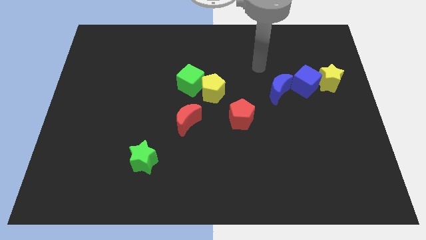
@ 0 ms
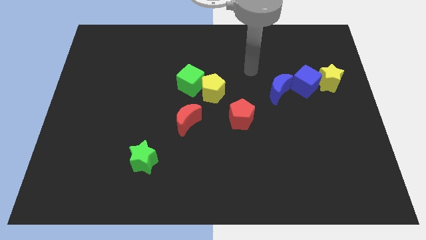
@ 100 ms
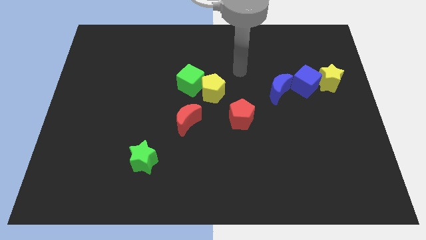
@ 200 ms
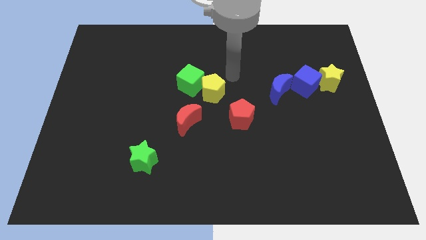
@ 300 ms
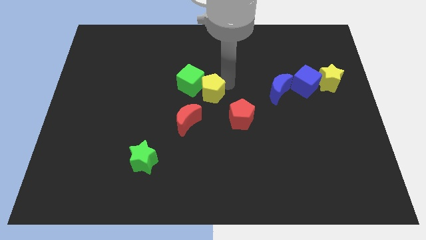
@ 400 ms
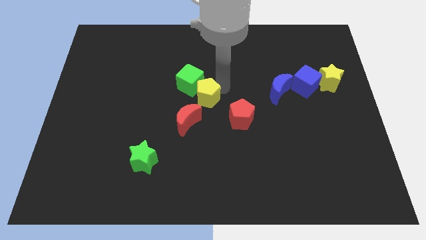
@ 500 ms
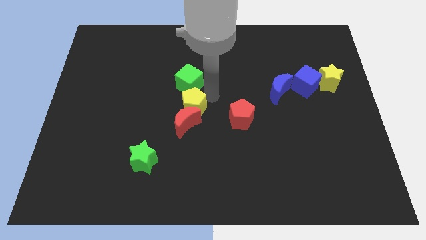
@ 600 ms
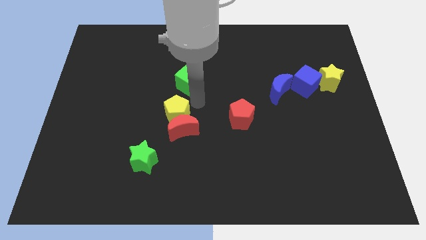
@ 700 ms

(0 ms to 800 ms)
move the green cube away from the yellow pentagon

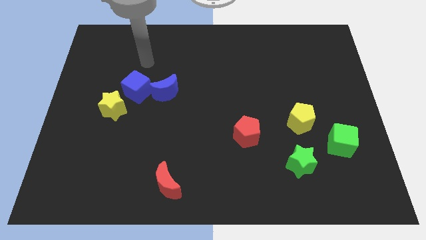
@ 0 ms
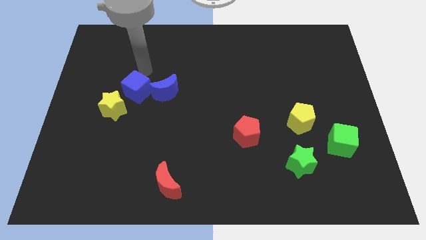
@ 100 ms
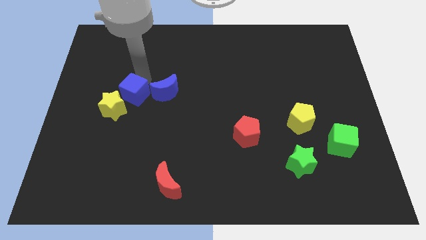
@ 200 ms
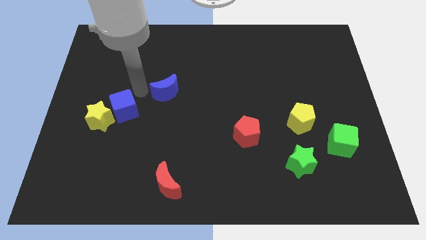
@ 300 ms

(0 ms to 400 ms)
pull the blue moon apart from the blue cube

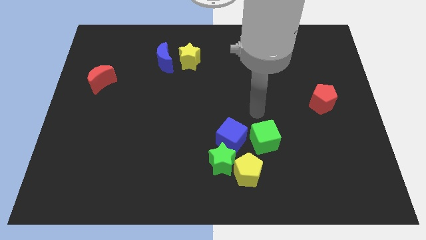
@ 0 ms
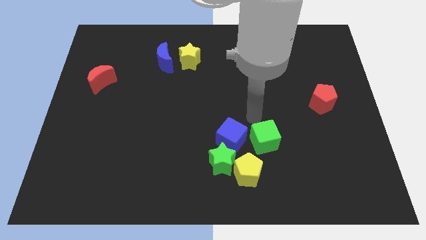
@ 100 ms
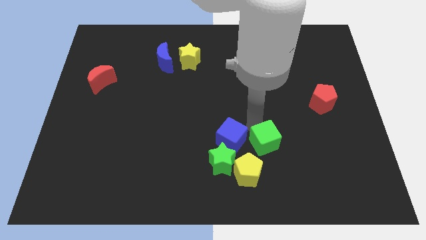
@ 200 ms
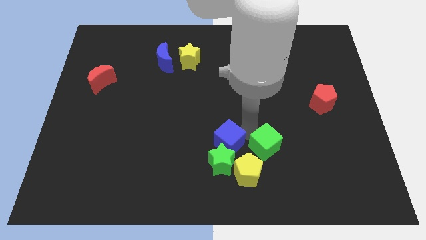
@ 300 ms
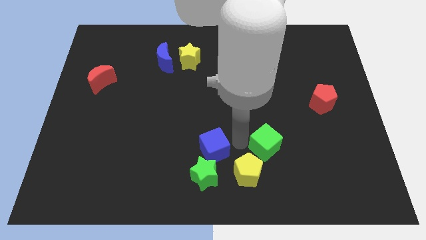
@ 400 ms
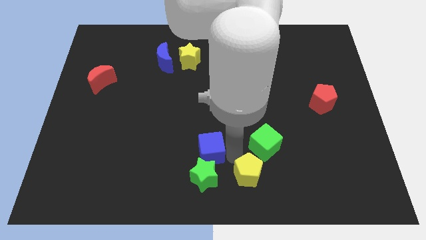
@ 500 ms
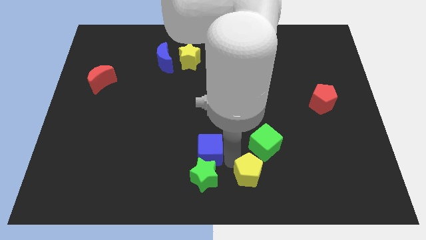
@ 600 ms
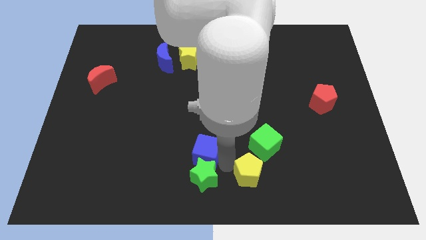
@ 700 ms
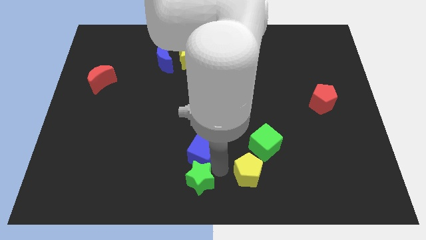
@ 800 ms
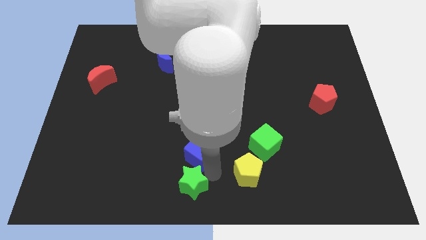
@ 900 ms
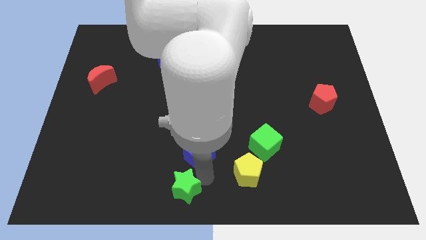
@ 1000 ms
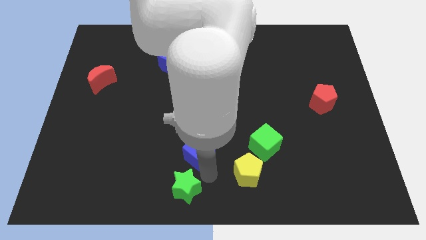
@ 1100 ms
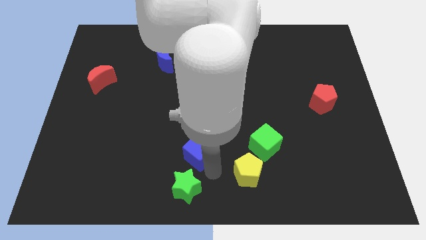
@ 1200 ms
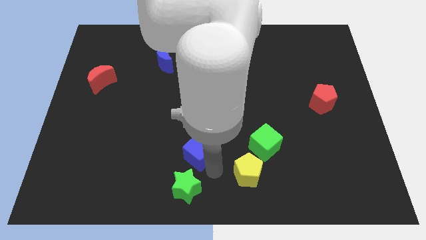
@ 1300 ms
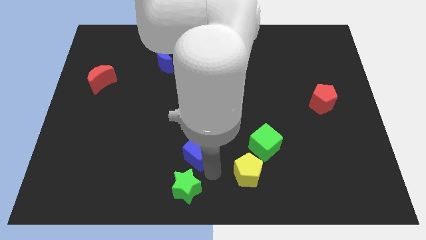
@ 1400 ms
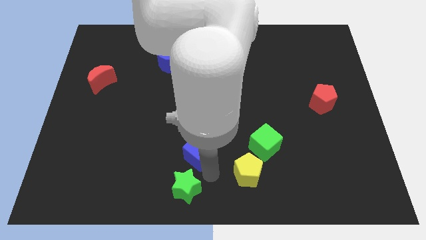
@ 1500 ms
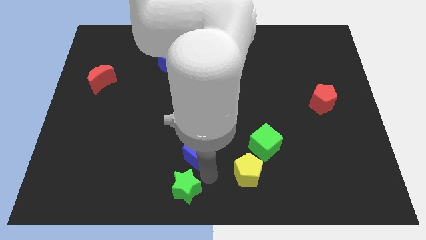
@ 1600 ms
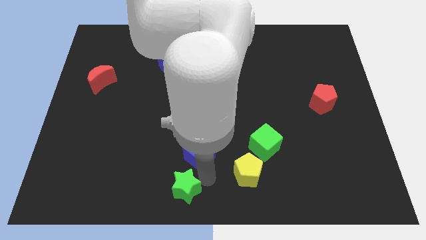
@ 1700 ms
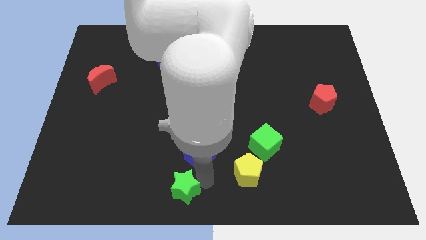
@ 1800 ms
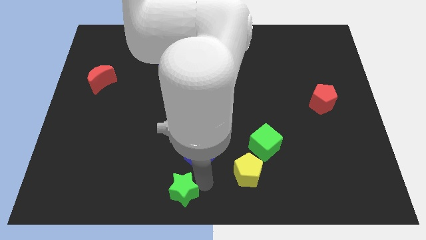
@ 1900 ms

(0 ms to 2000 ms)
move the green star away from the yellow pentagon and blue cube

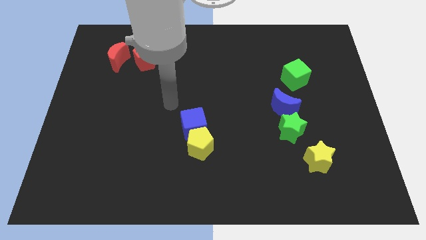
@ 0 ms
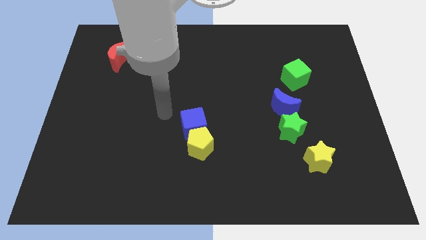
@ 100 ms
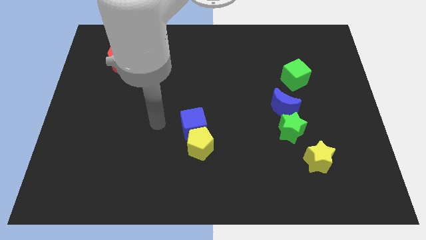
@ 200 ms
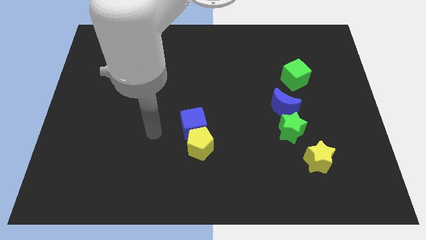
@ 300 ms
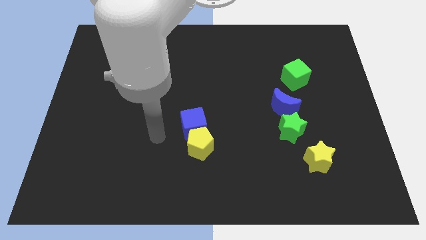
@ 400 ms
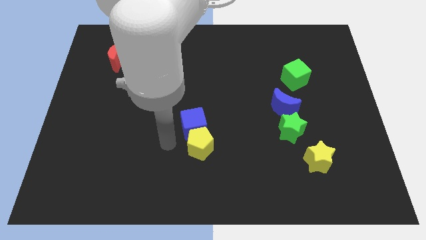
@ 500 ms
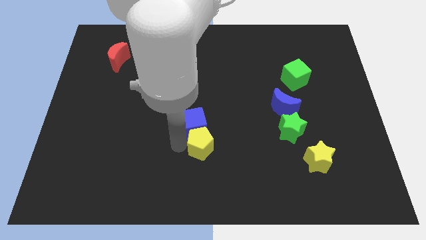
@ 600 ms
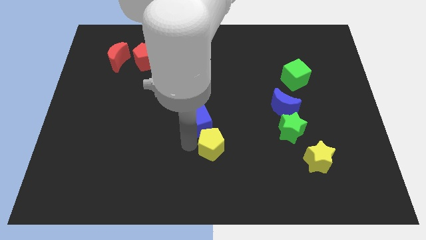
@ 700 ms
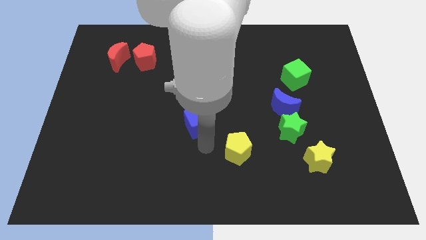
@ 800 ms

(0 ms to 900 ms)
separate the blue cube from the yellow pentagon

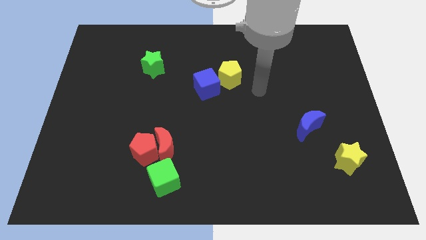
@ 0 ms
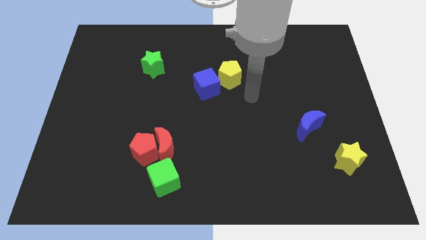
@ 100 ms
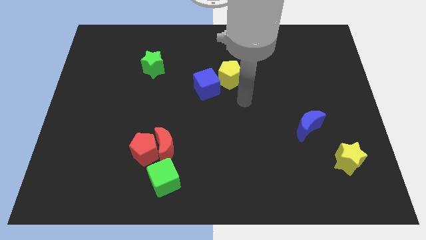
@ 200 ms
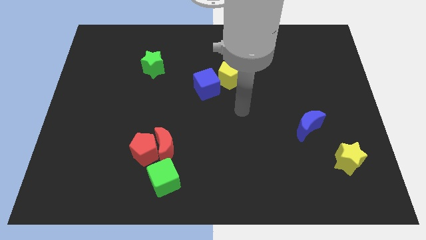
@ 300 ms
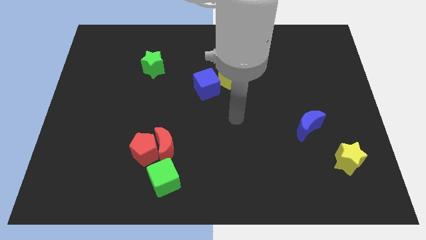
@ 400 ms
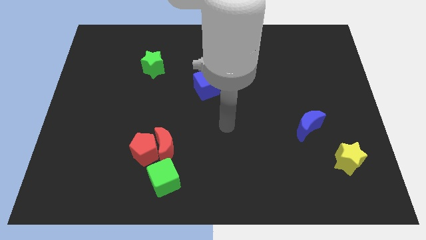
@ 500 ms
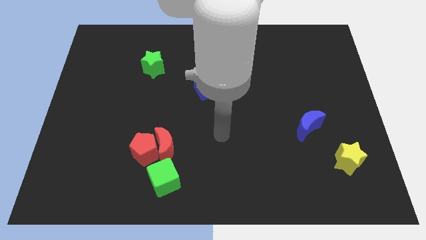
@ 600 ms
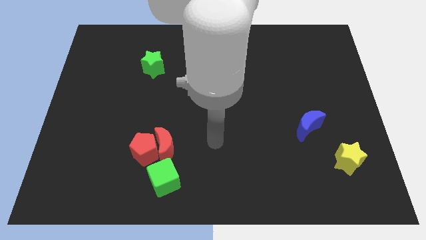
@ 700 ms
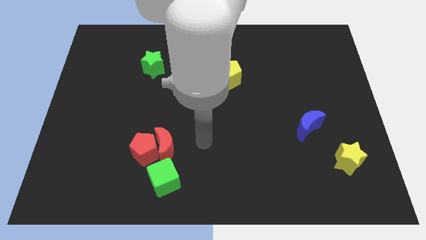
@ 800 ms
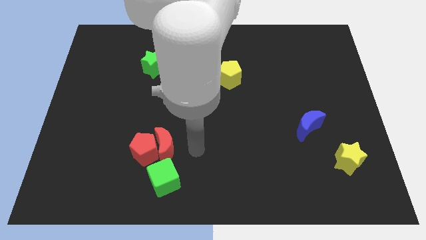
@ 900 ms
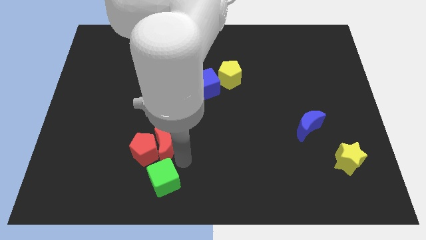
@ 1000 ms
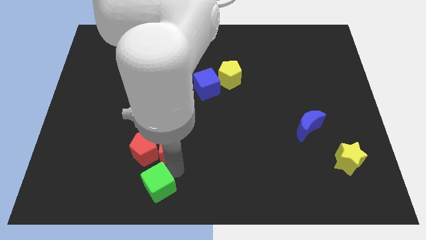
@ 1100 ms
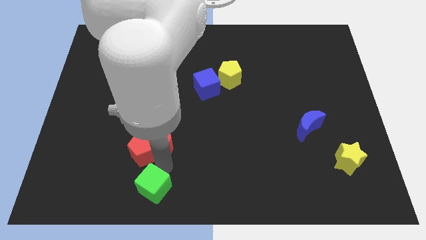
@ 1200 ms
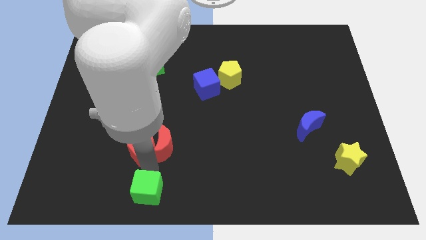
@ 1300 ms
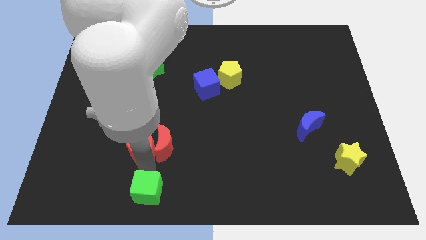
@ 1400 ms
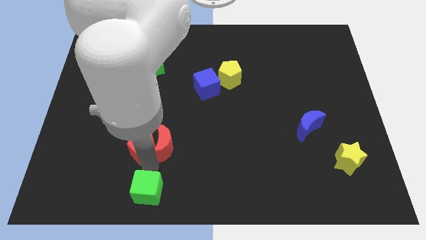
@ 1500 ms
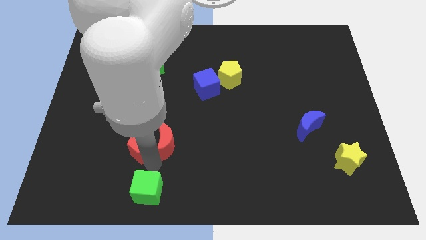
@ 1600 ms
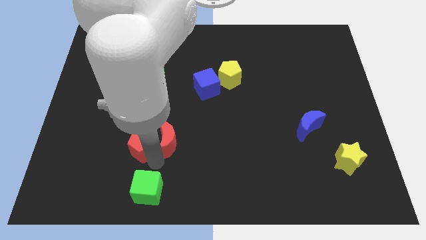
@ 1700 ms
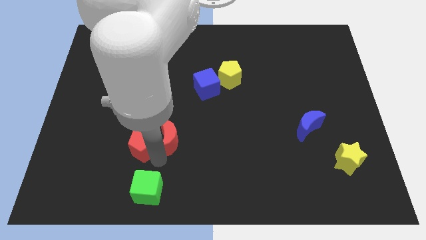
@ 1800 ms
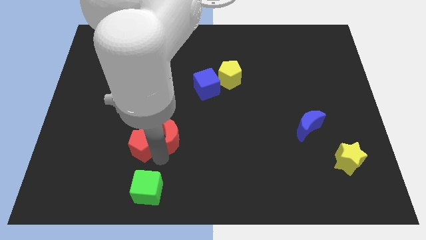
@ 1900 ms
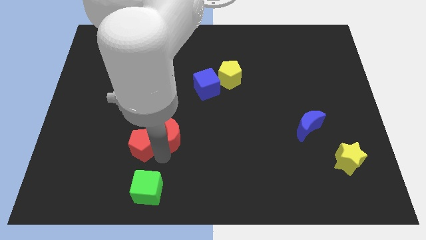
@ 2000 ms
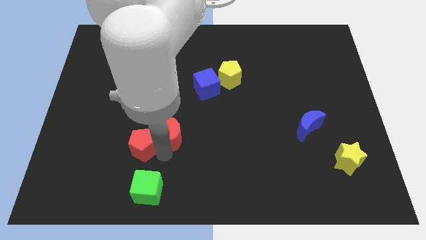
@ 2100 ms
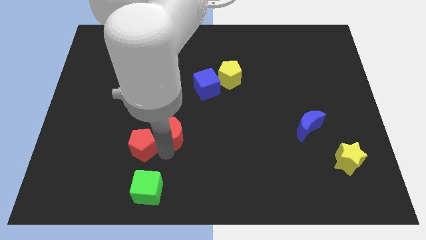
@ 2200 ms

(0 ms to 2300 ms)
pull the red moon apart from the red pentagon and green cube

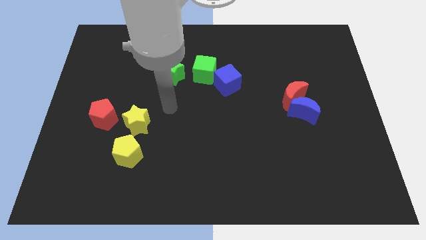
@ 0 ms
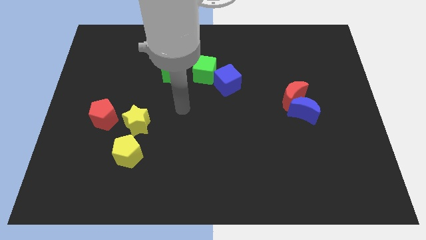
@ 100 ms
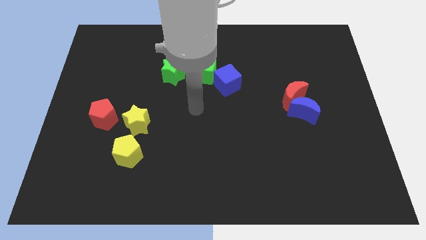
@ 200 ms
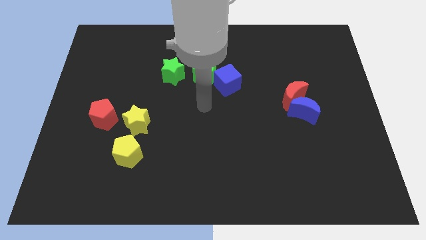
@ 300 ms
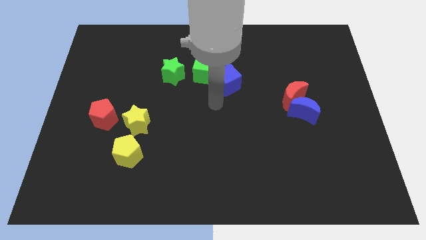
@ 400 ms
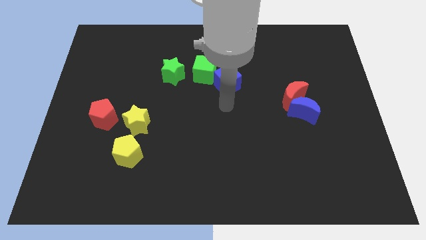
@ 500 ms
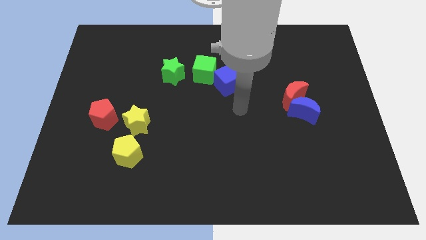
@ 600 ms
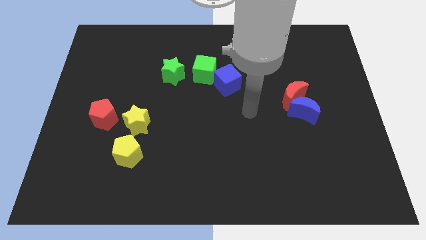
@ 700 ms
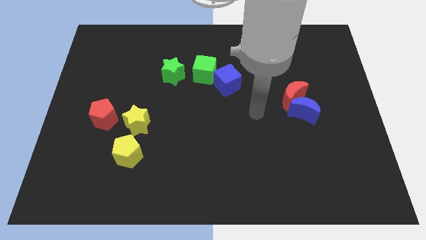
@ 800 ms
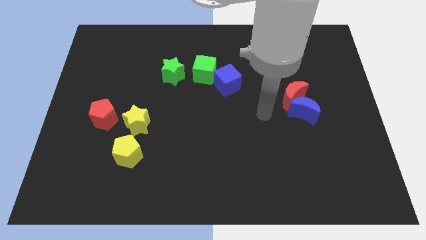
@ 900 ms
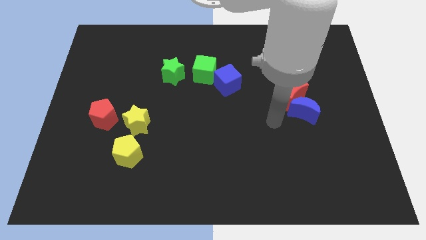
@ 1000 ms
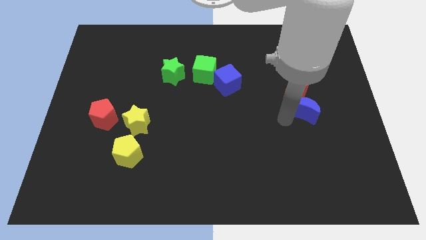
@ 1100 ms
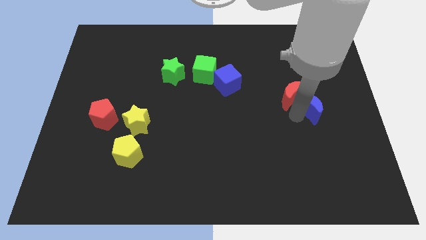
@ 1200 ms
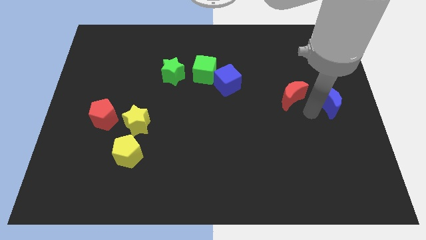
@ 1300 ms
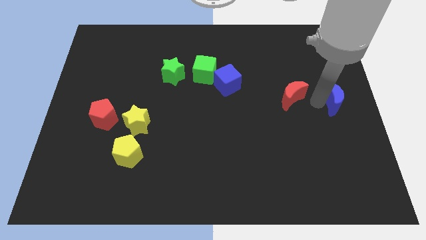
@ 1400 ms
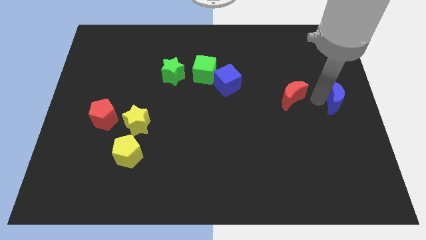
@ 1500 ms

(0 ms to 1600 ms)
move the red moon away from the blue moon

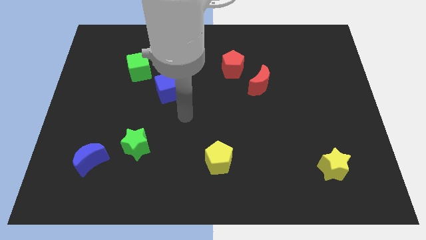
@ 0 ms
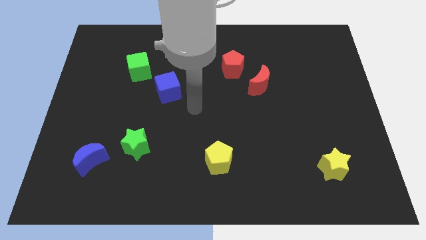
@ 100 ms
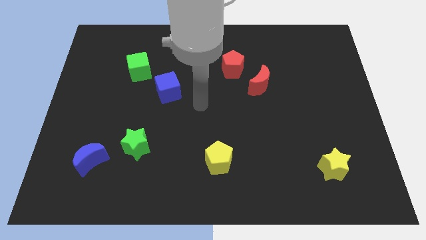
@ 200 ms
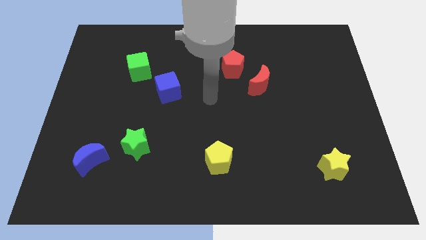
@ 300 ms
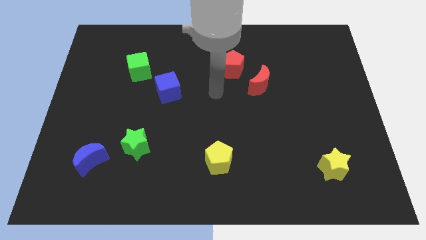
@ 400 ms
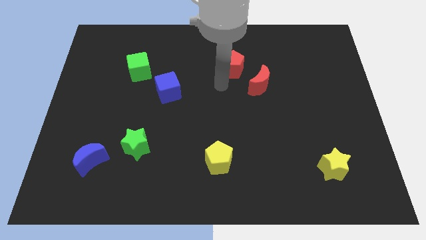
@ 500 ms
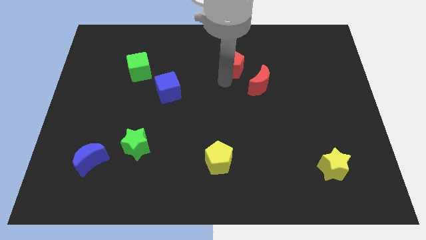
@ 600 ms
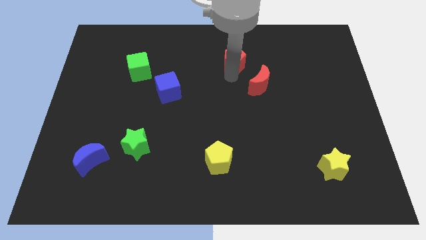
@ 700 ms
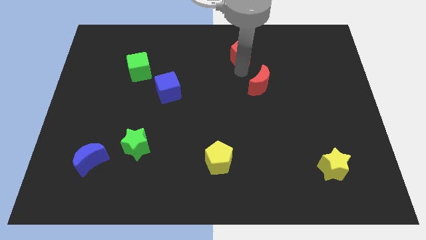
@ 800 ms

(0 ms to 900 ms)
pull the red moon apart from the red pentagon

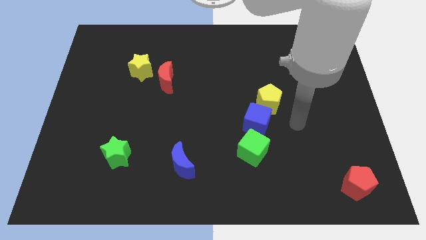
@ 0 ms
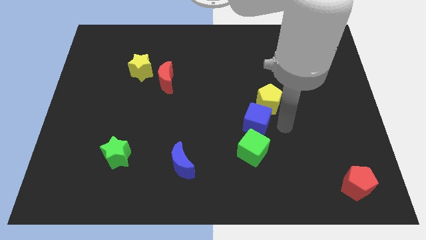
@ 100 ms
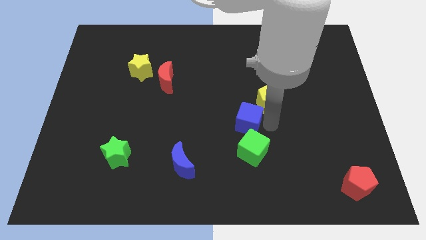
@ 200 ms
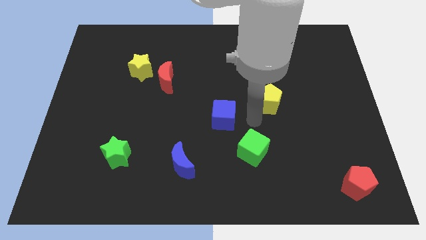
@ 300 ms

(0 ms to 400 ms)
move the yellow pentagon away from the blue cube

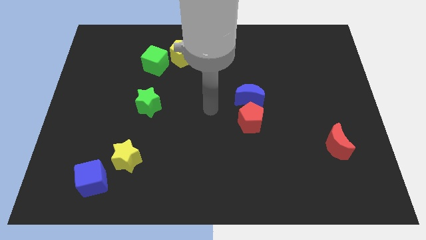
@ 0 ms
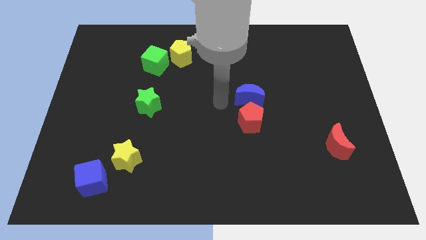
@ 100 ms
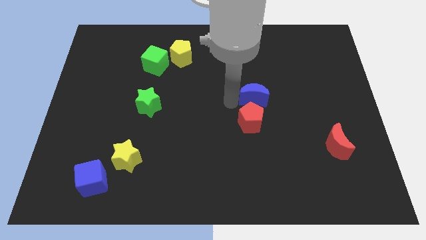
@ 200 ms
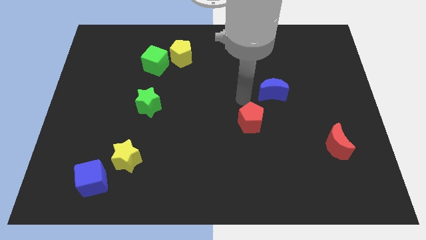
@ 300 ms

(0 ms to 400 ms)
pull the red pentagon apart from the blue moon
